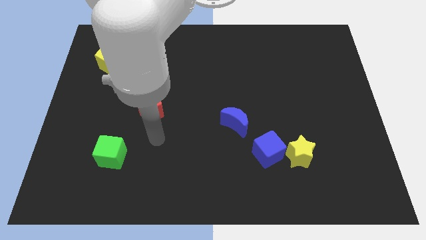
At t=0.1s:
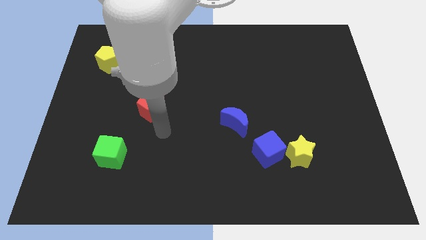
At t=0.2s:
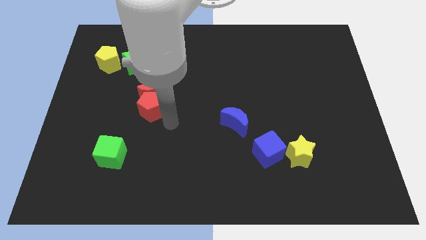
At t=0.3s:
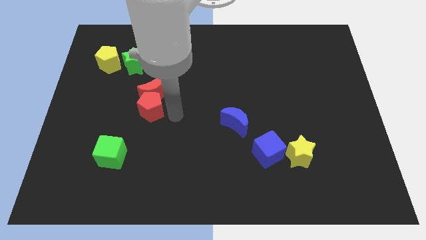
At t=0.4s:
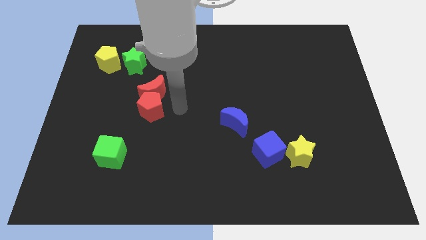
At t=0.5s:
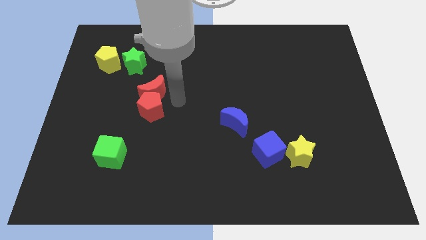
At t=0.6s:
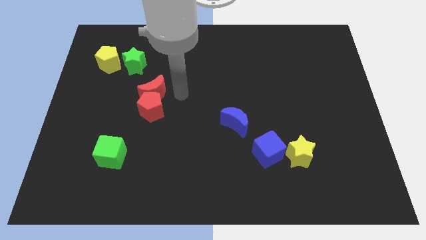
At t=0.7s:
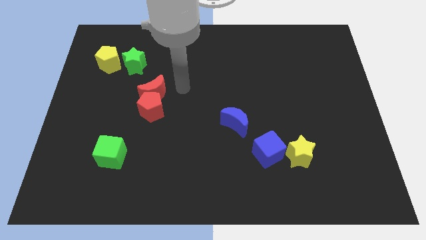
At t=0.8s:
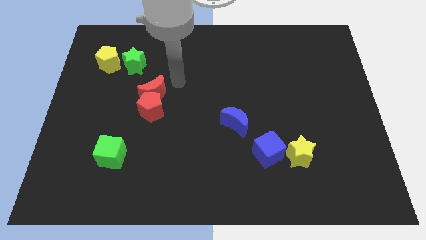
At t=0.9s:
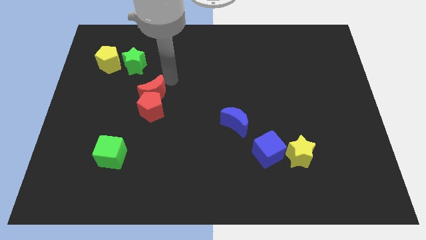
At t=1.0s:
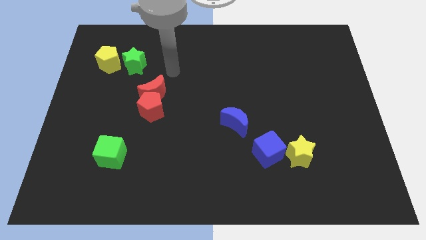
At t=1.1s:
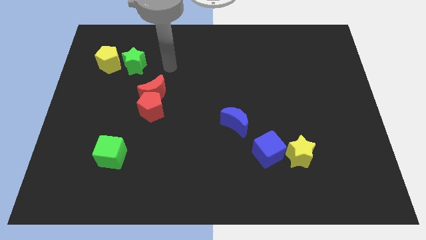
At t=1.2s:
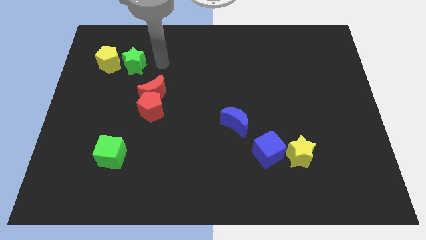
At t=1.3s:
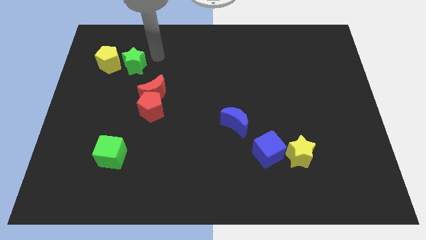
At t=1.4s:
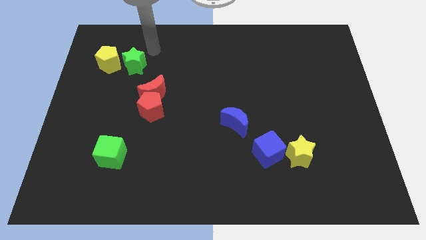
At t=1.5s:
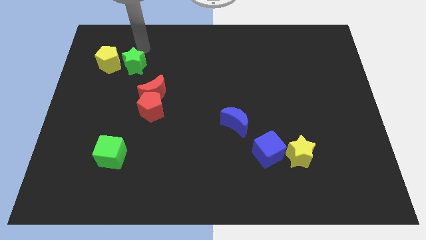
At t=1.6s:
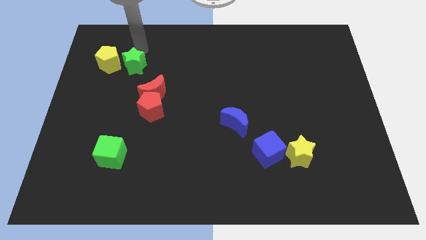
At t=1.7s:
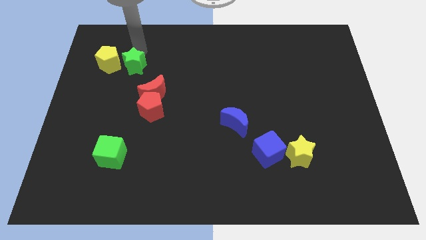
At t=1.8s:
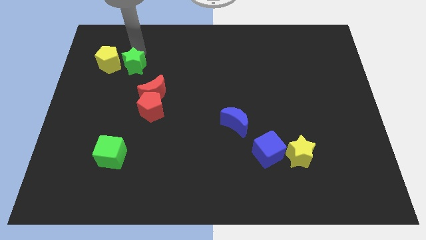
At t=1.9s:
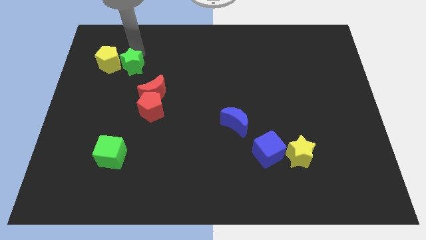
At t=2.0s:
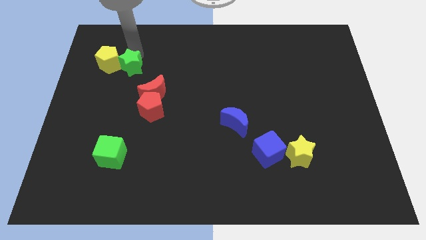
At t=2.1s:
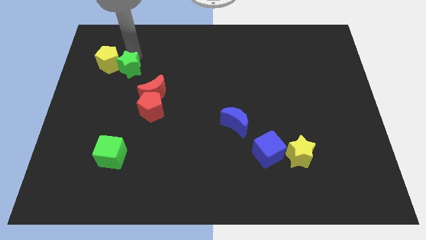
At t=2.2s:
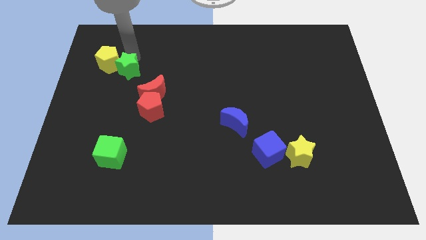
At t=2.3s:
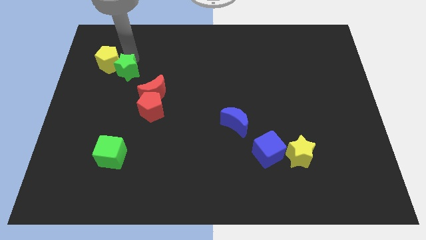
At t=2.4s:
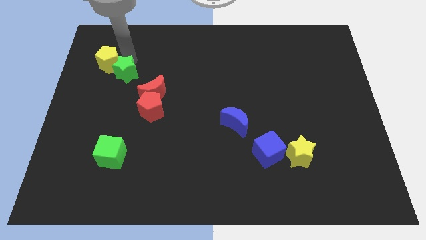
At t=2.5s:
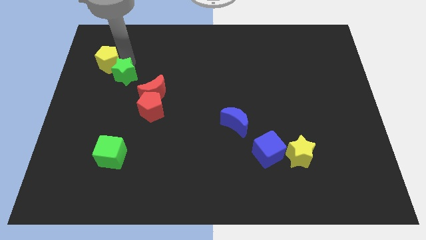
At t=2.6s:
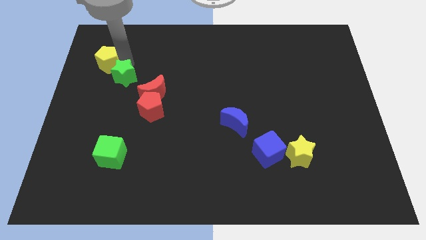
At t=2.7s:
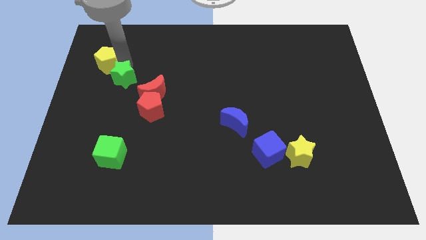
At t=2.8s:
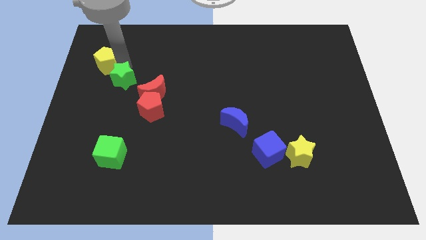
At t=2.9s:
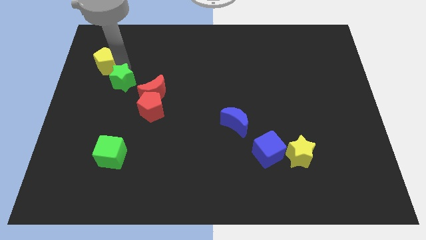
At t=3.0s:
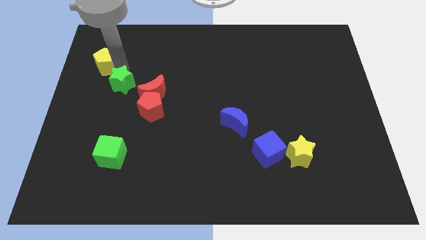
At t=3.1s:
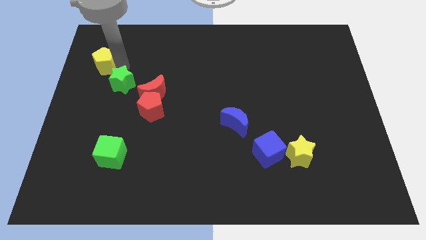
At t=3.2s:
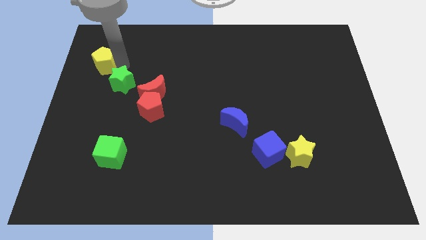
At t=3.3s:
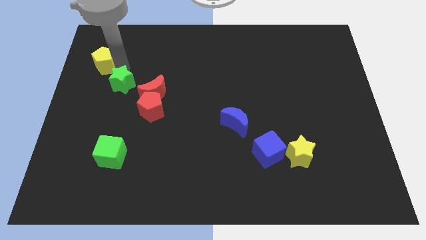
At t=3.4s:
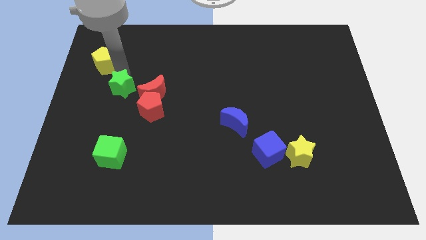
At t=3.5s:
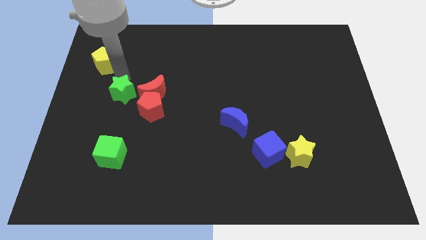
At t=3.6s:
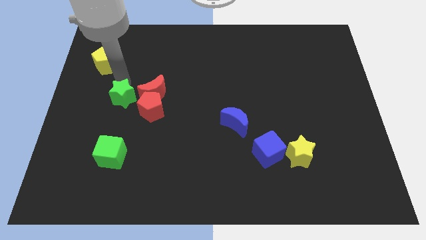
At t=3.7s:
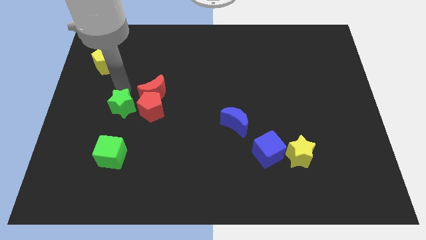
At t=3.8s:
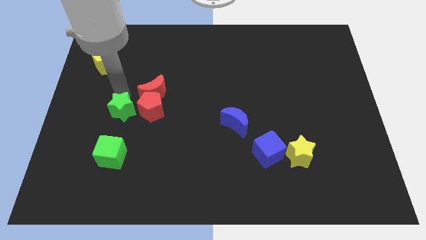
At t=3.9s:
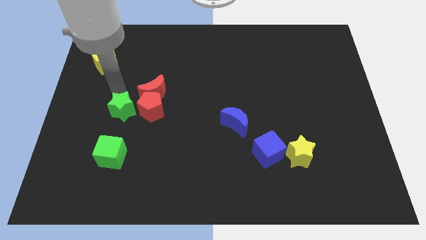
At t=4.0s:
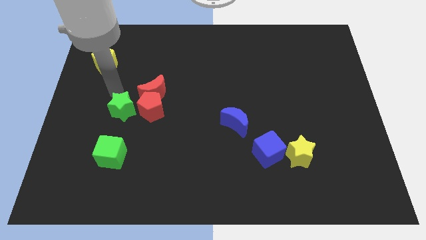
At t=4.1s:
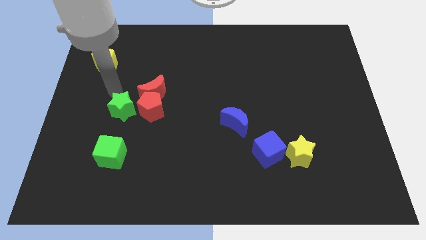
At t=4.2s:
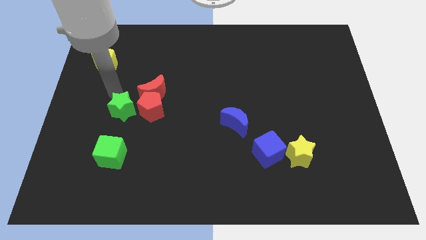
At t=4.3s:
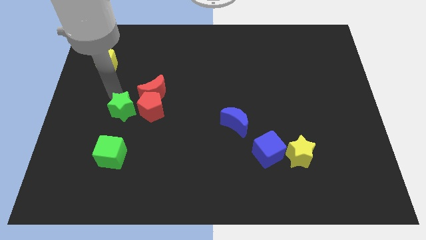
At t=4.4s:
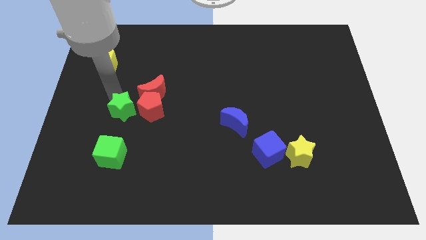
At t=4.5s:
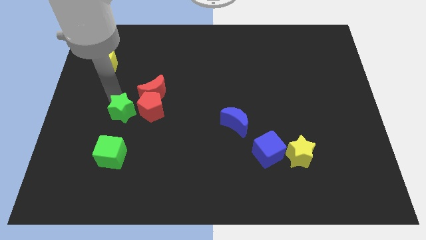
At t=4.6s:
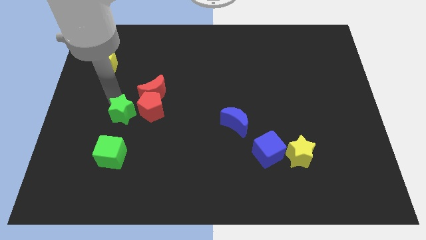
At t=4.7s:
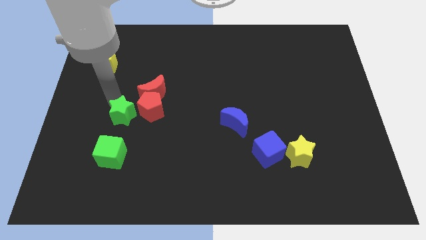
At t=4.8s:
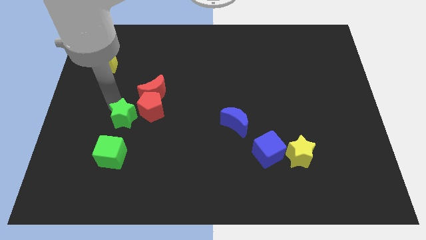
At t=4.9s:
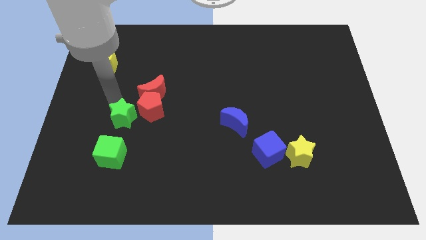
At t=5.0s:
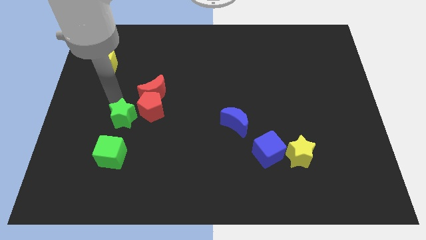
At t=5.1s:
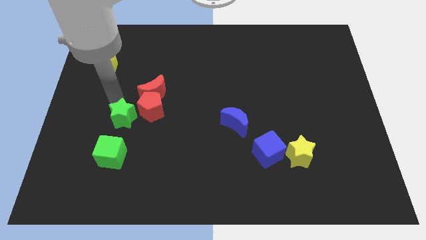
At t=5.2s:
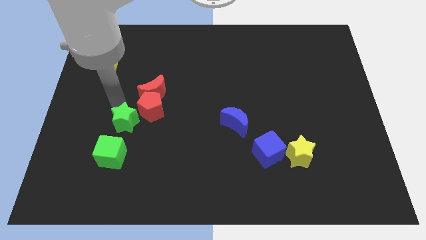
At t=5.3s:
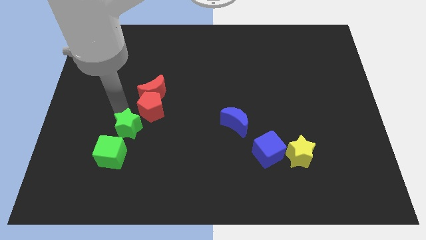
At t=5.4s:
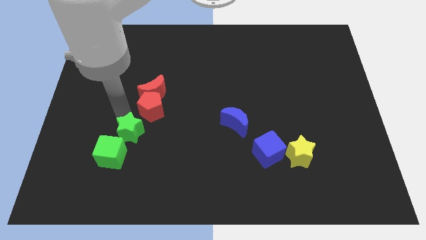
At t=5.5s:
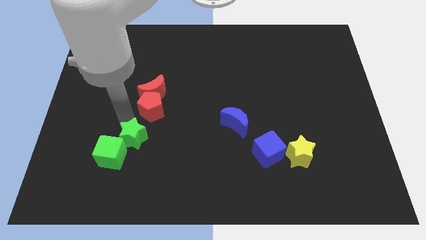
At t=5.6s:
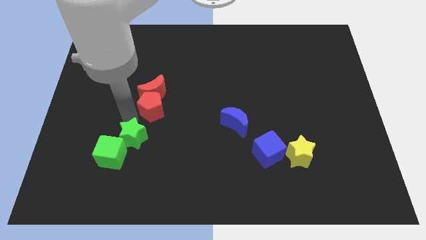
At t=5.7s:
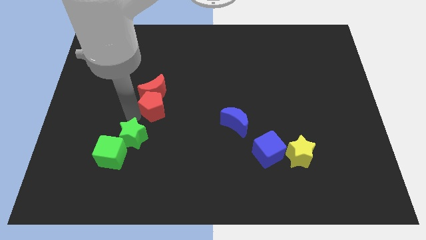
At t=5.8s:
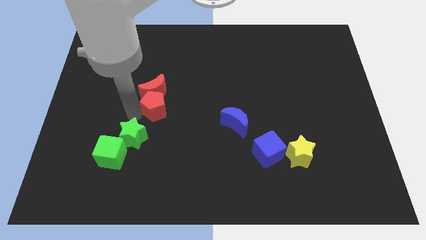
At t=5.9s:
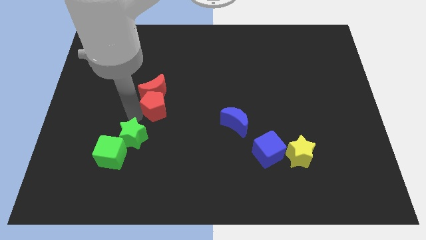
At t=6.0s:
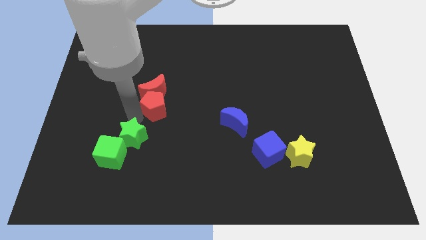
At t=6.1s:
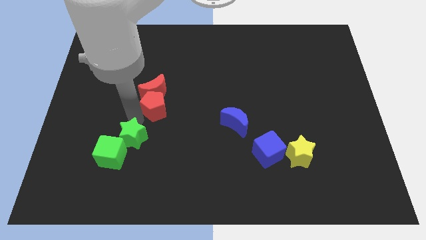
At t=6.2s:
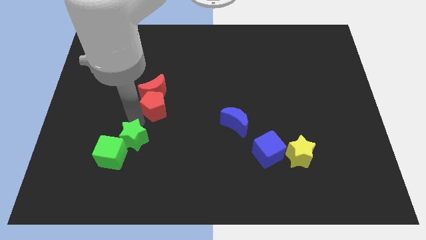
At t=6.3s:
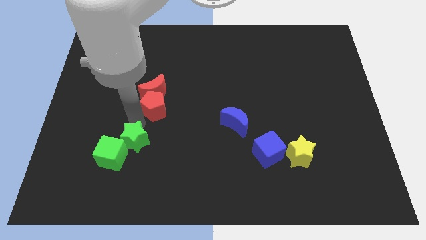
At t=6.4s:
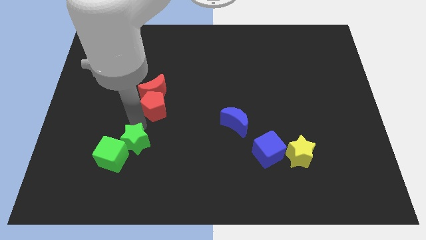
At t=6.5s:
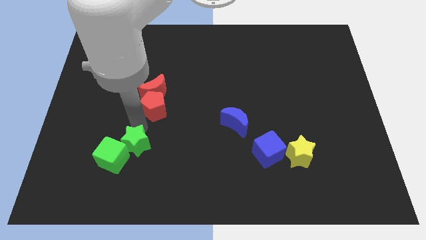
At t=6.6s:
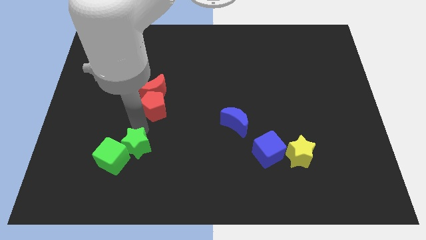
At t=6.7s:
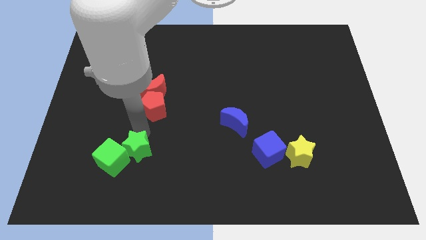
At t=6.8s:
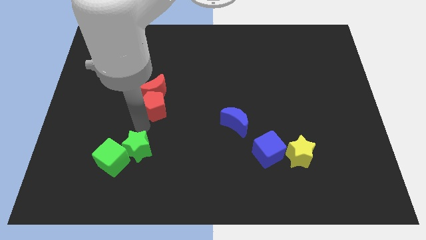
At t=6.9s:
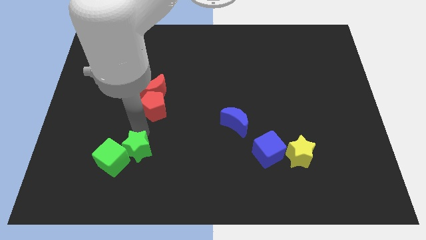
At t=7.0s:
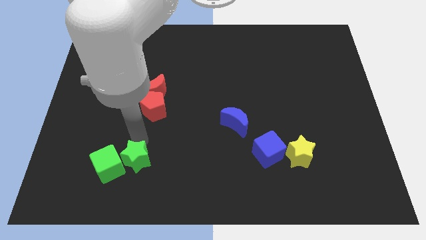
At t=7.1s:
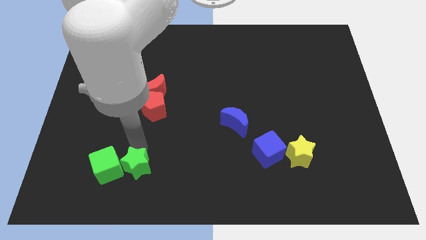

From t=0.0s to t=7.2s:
push the green star to the bottom right side of the green cube
